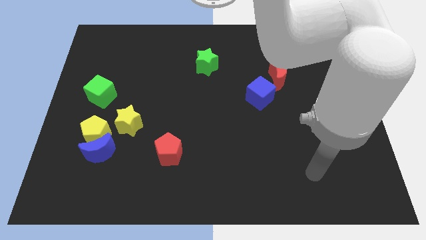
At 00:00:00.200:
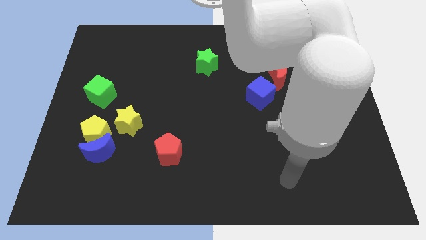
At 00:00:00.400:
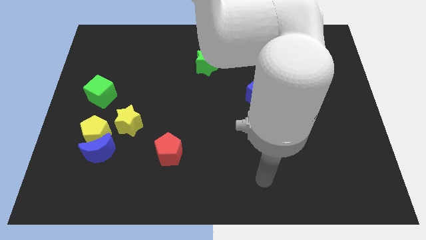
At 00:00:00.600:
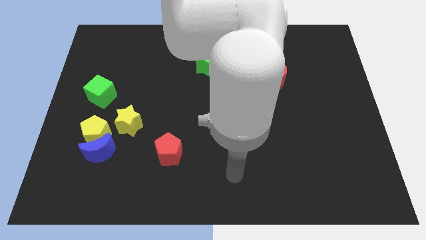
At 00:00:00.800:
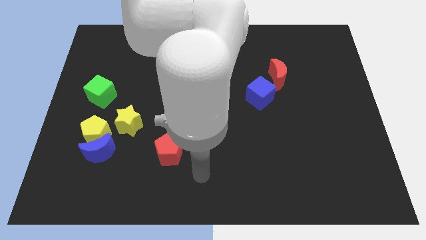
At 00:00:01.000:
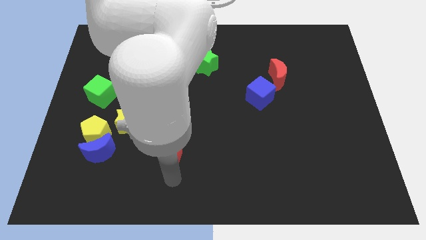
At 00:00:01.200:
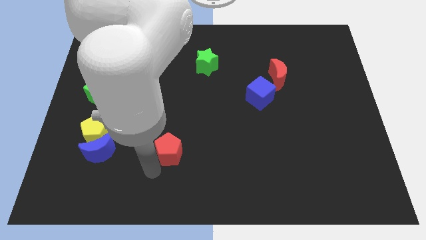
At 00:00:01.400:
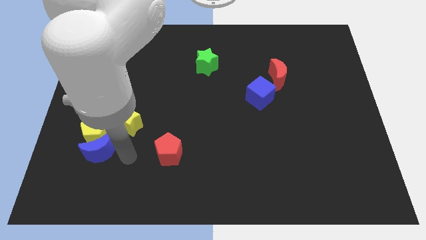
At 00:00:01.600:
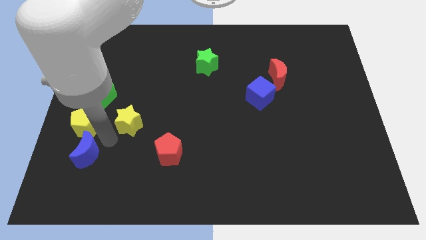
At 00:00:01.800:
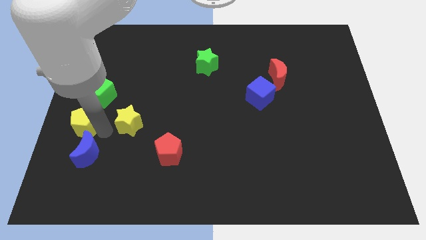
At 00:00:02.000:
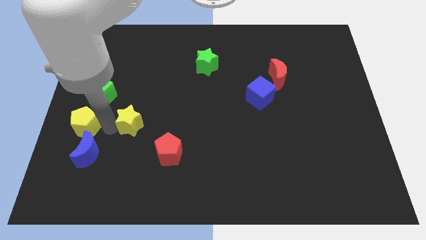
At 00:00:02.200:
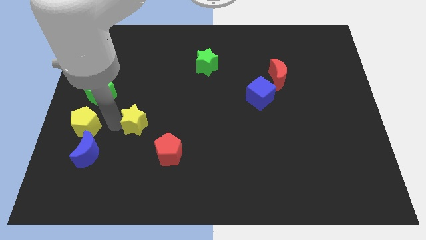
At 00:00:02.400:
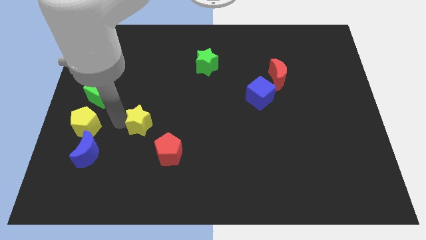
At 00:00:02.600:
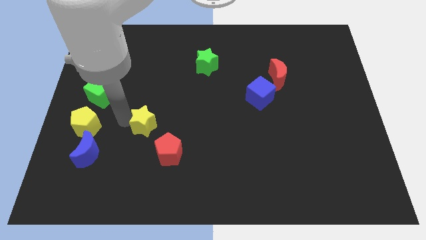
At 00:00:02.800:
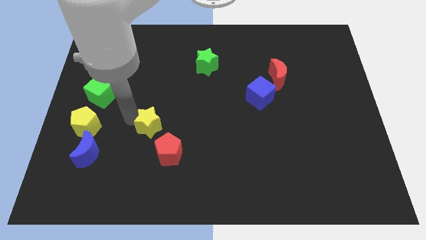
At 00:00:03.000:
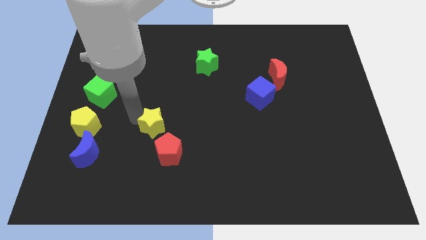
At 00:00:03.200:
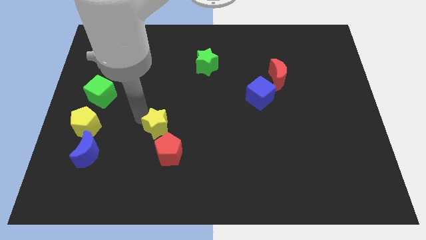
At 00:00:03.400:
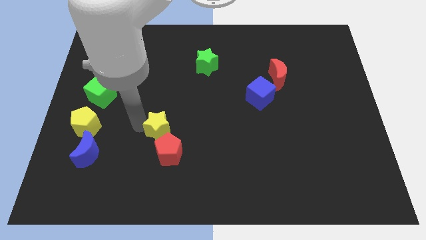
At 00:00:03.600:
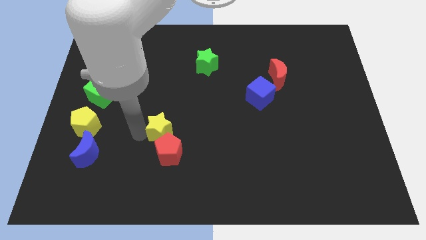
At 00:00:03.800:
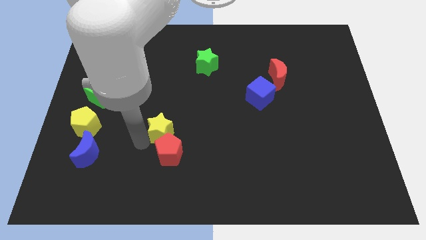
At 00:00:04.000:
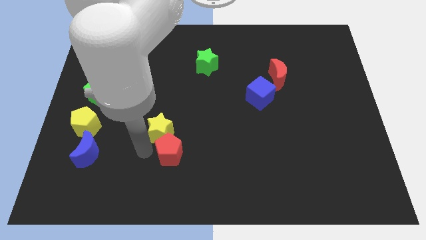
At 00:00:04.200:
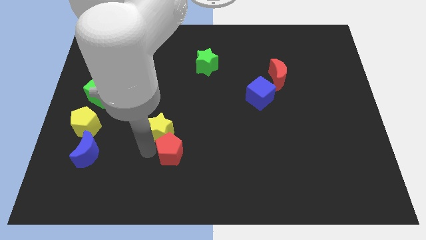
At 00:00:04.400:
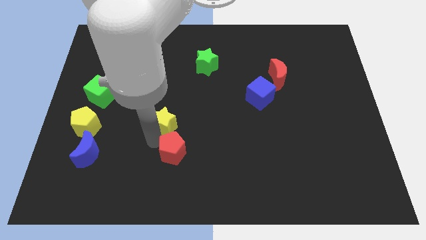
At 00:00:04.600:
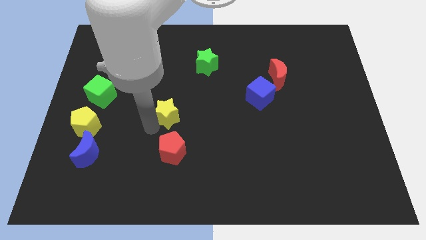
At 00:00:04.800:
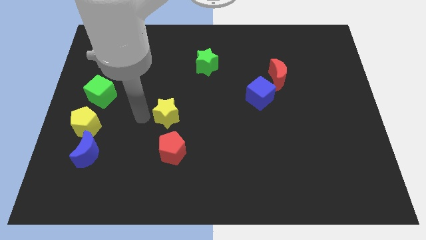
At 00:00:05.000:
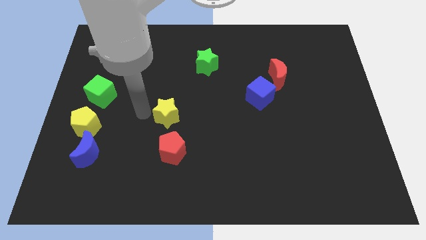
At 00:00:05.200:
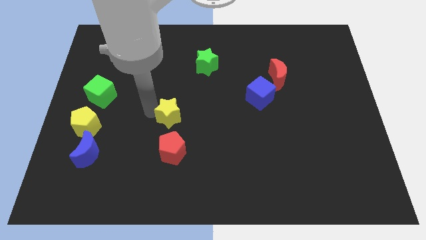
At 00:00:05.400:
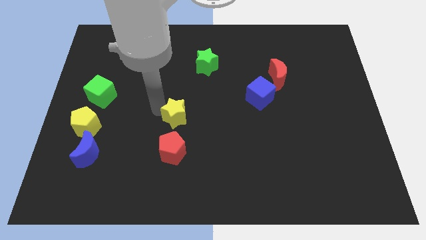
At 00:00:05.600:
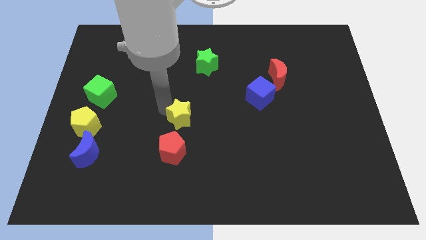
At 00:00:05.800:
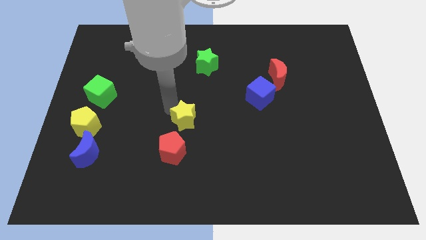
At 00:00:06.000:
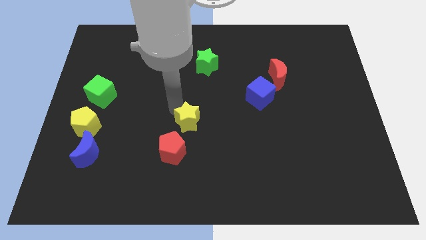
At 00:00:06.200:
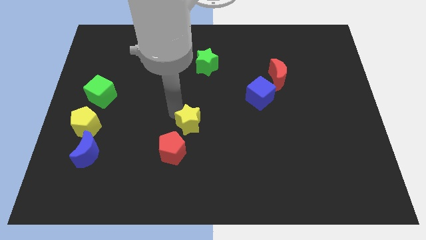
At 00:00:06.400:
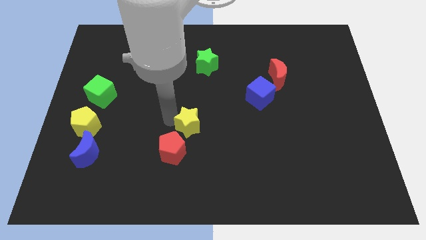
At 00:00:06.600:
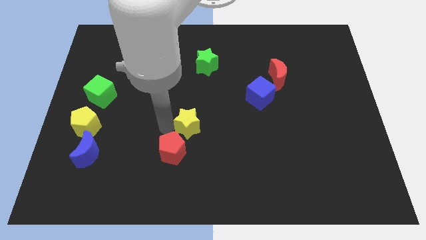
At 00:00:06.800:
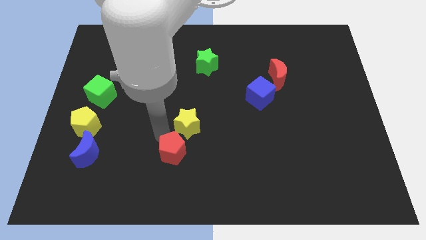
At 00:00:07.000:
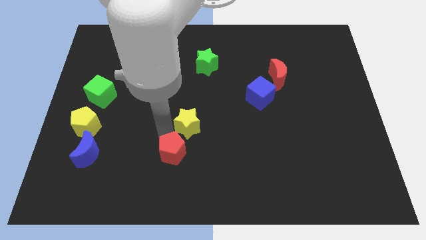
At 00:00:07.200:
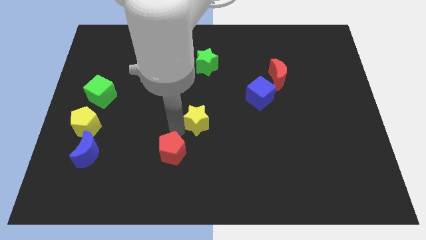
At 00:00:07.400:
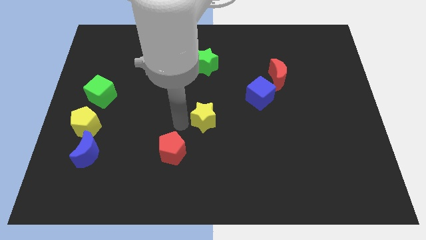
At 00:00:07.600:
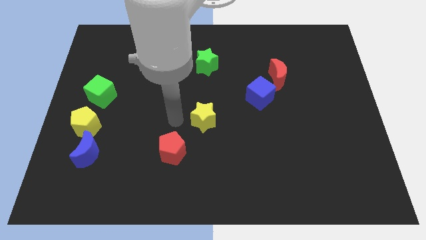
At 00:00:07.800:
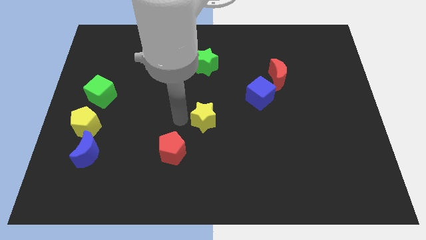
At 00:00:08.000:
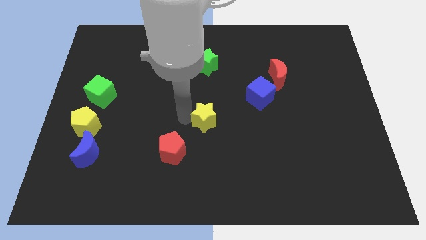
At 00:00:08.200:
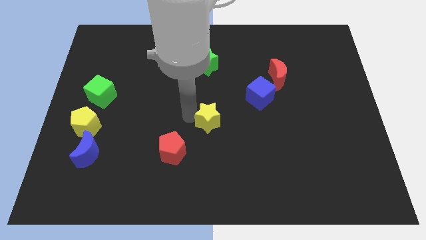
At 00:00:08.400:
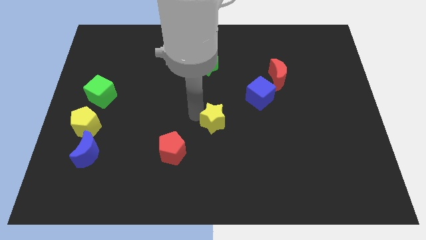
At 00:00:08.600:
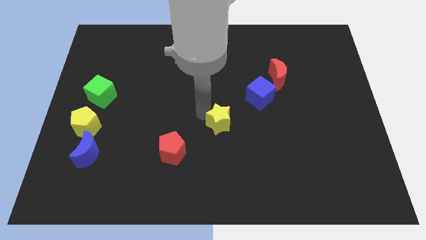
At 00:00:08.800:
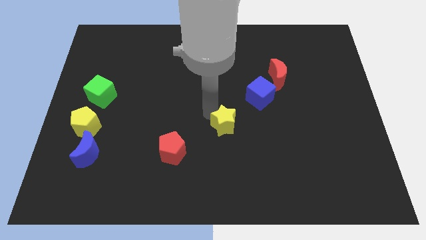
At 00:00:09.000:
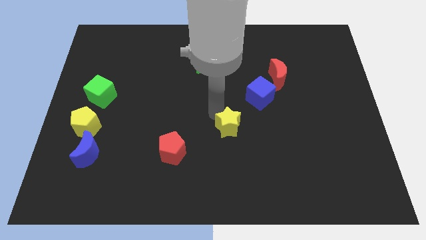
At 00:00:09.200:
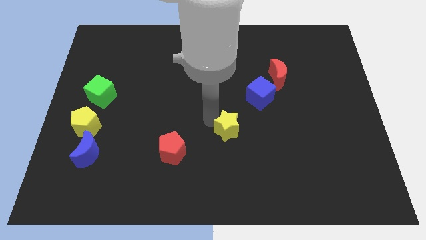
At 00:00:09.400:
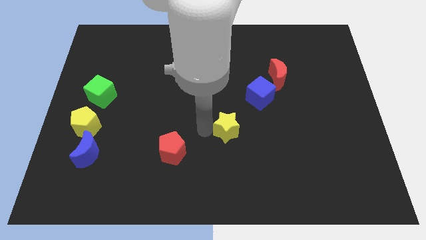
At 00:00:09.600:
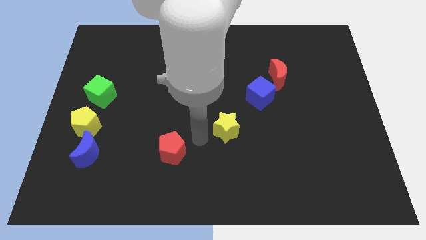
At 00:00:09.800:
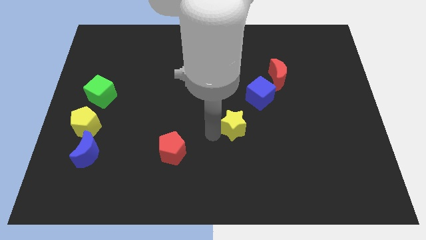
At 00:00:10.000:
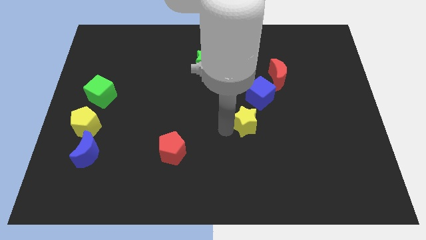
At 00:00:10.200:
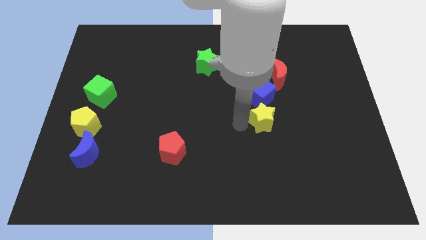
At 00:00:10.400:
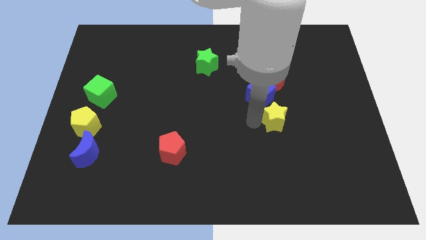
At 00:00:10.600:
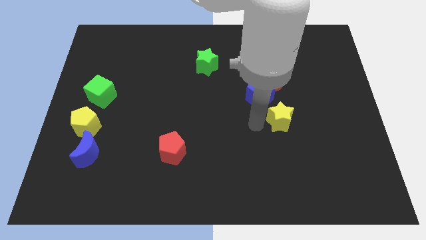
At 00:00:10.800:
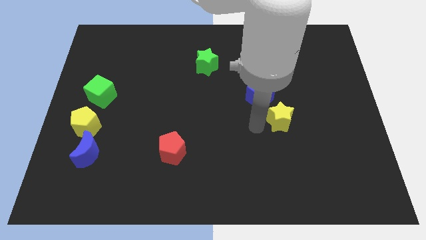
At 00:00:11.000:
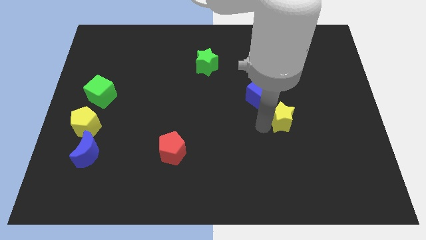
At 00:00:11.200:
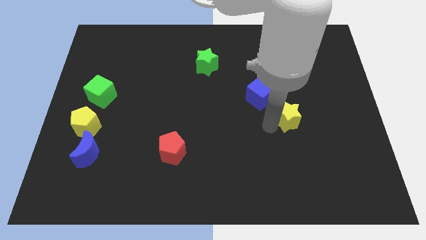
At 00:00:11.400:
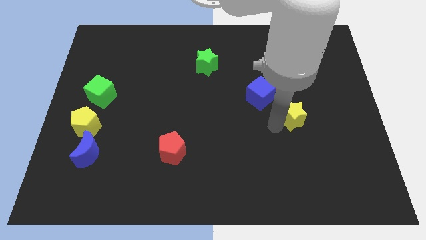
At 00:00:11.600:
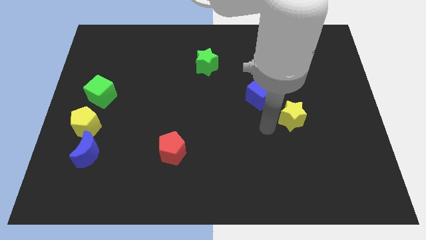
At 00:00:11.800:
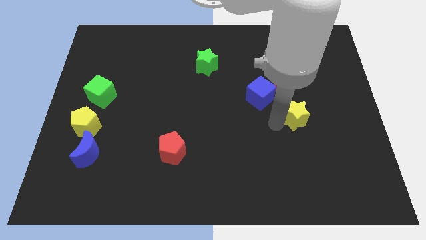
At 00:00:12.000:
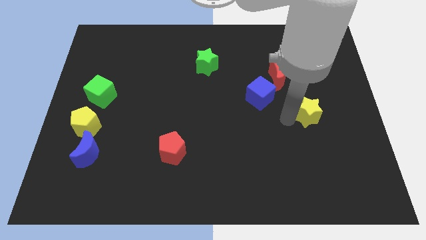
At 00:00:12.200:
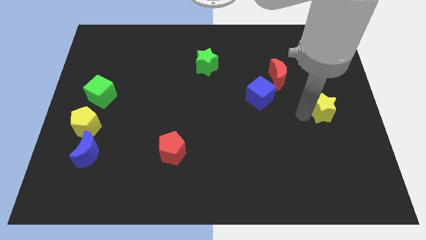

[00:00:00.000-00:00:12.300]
slide the yellow star to the center right
